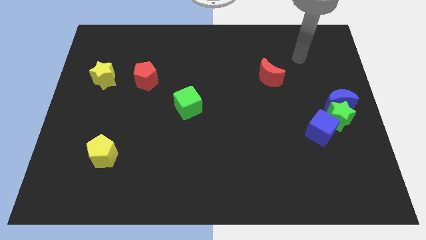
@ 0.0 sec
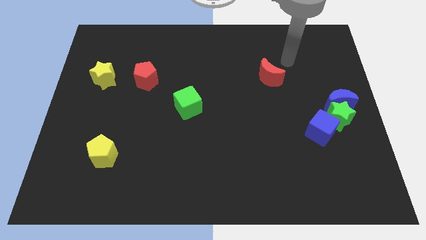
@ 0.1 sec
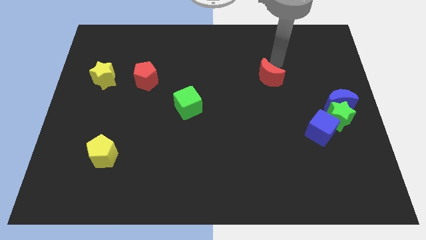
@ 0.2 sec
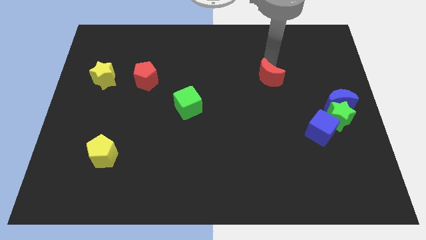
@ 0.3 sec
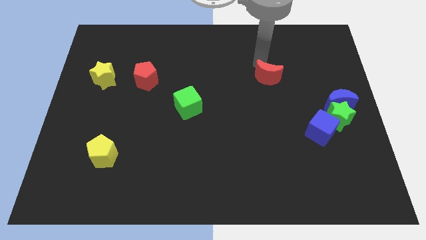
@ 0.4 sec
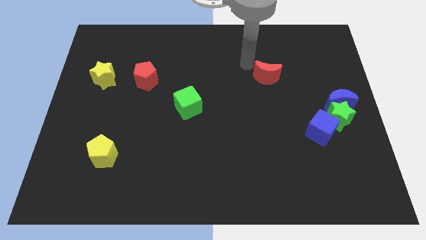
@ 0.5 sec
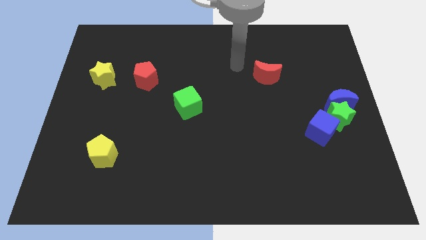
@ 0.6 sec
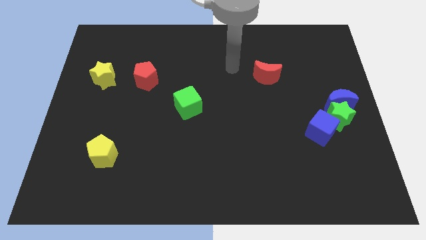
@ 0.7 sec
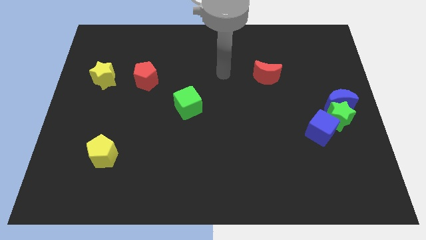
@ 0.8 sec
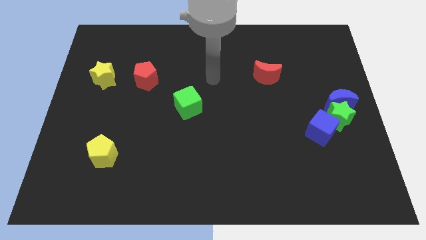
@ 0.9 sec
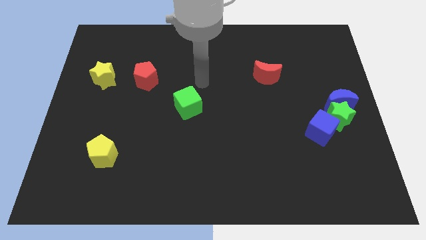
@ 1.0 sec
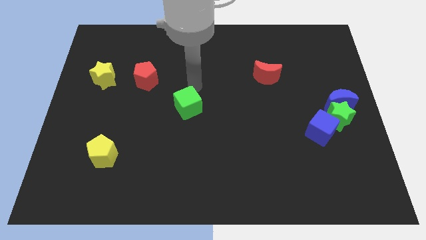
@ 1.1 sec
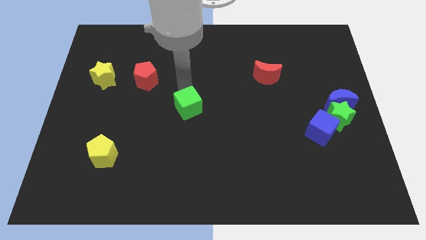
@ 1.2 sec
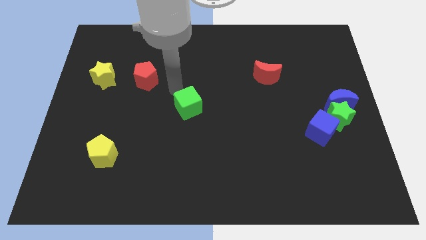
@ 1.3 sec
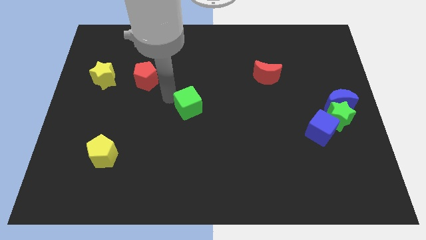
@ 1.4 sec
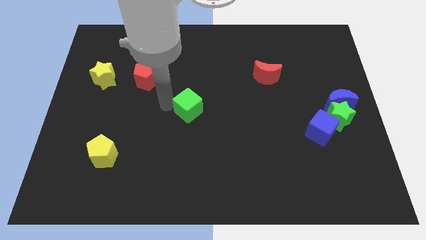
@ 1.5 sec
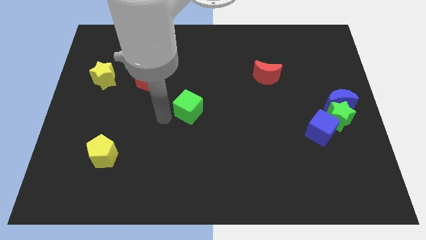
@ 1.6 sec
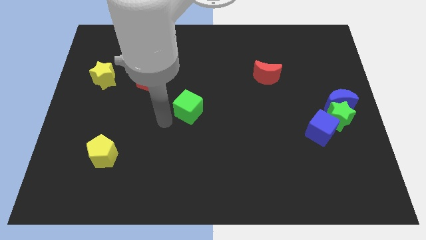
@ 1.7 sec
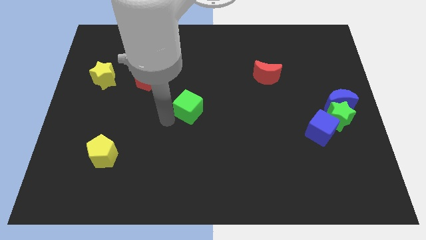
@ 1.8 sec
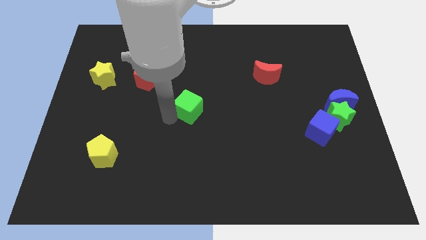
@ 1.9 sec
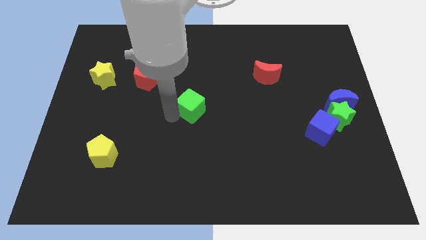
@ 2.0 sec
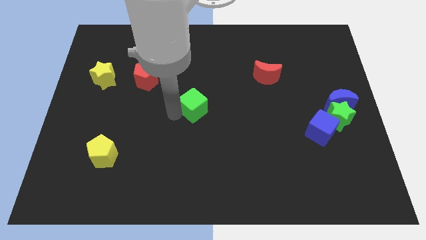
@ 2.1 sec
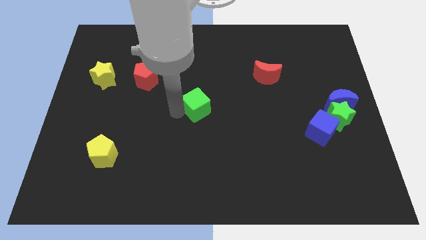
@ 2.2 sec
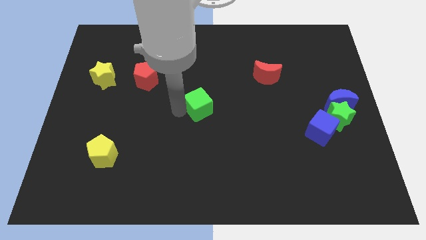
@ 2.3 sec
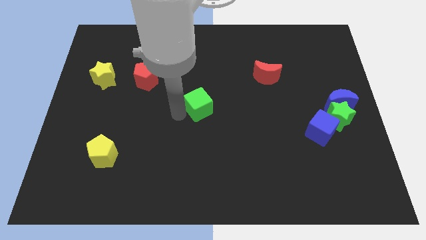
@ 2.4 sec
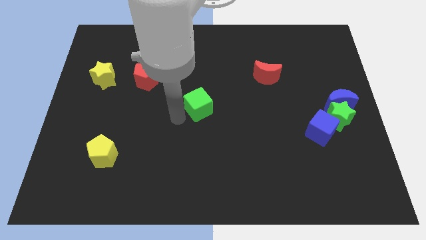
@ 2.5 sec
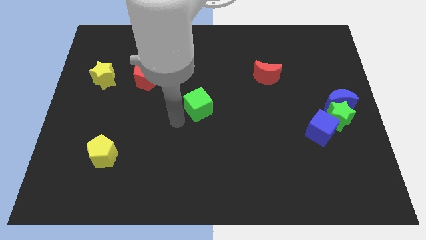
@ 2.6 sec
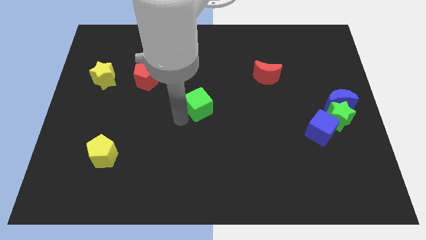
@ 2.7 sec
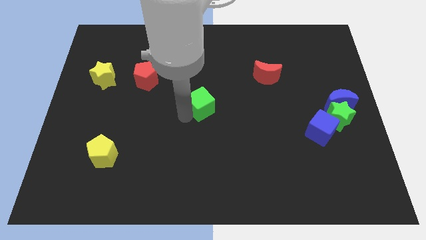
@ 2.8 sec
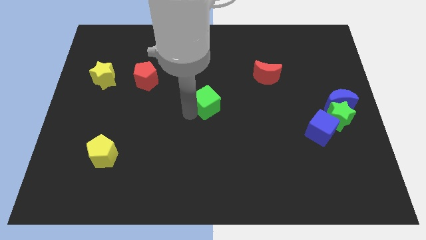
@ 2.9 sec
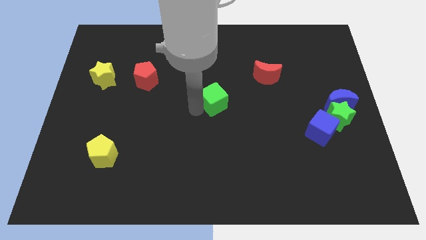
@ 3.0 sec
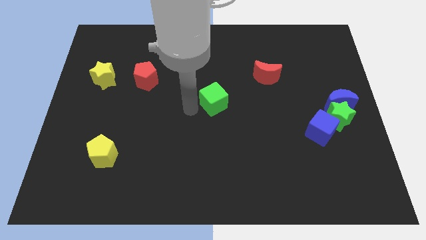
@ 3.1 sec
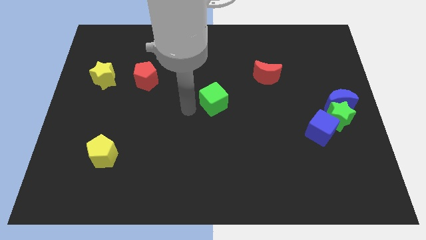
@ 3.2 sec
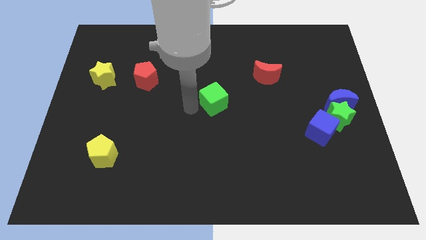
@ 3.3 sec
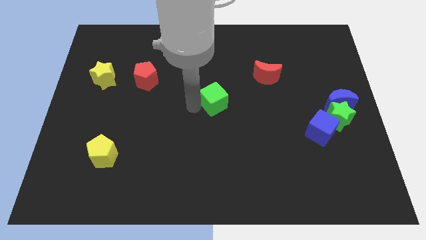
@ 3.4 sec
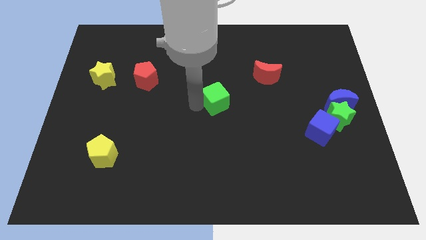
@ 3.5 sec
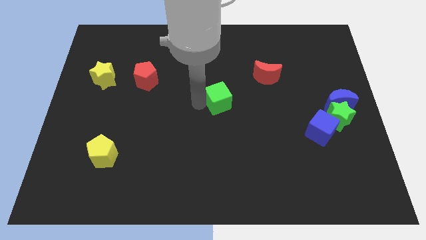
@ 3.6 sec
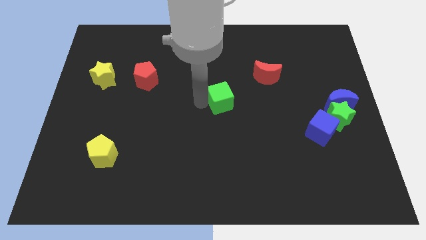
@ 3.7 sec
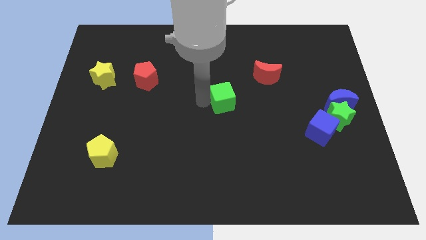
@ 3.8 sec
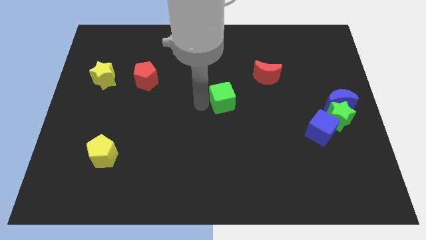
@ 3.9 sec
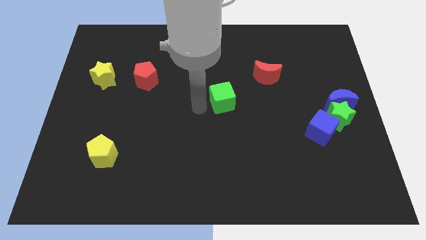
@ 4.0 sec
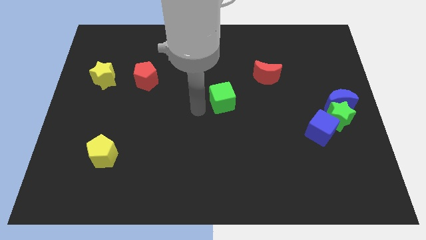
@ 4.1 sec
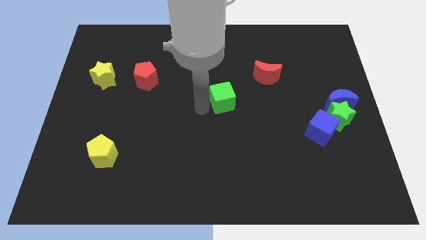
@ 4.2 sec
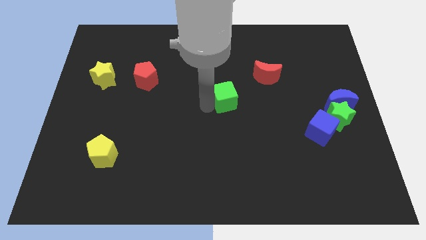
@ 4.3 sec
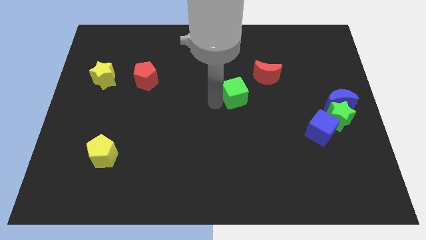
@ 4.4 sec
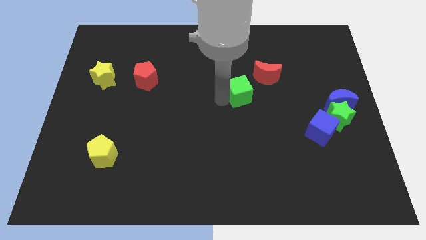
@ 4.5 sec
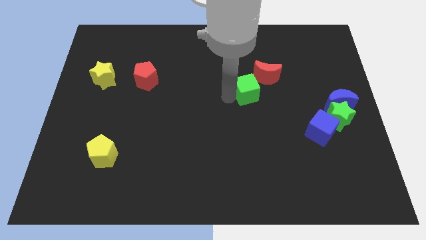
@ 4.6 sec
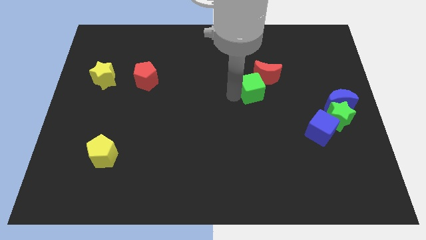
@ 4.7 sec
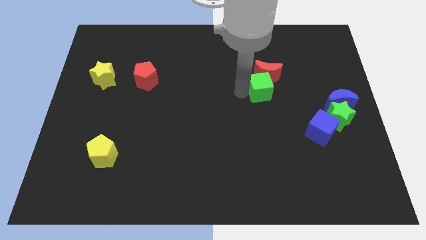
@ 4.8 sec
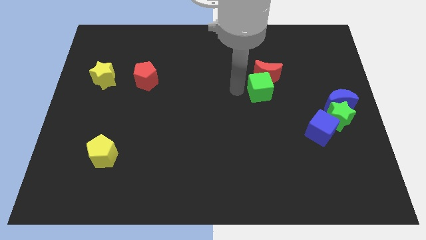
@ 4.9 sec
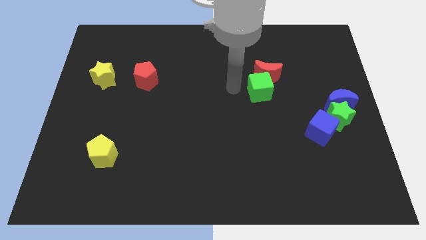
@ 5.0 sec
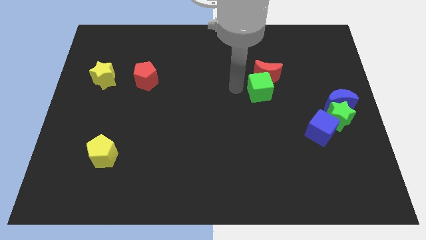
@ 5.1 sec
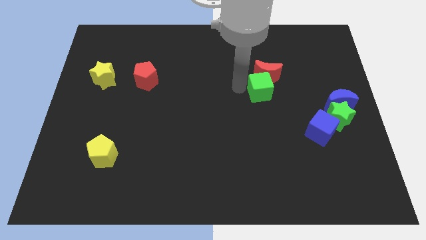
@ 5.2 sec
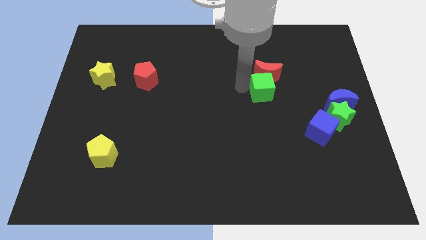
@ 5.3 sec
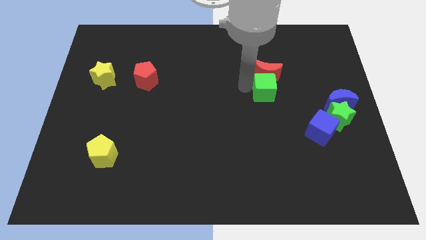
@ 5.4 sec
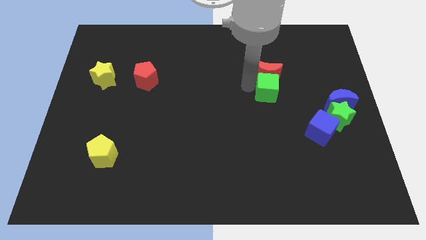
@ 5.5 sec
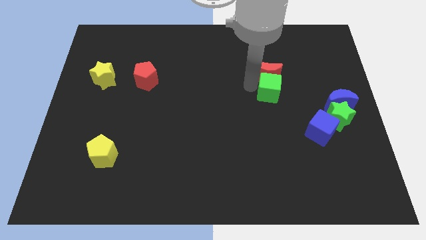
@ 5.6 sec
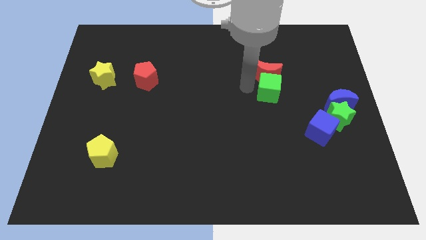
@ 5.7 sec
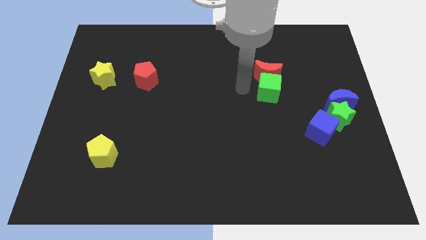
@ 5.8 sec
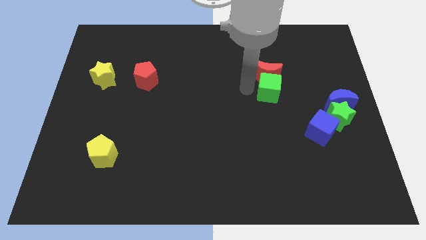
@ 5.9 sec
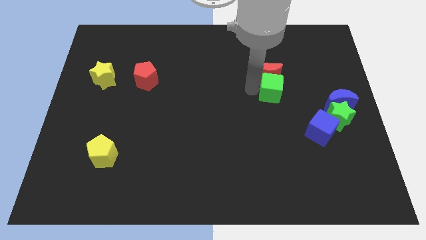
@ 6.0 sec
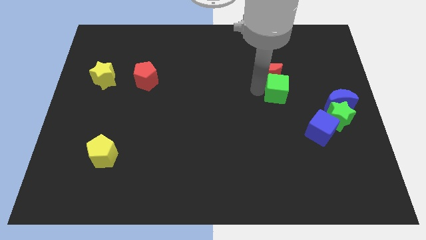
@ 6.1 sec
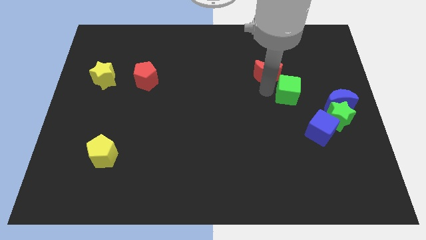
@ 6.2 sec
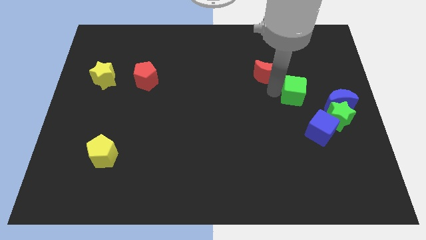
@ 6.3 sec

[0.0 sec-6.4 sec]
push the green cube above the blue cube

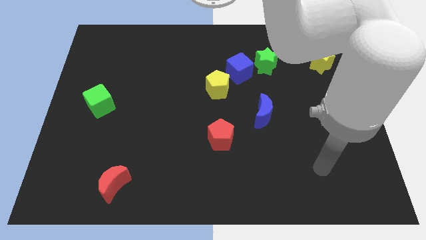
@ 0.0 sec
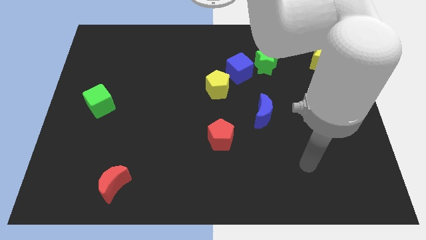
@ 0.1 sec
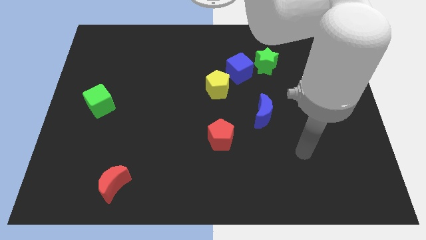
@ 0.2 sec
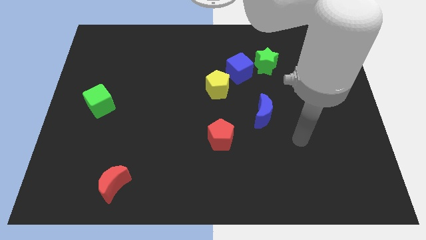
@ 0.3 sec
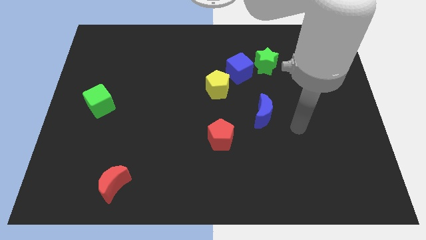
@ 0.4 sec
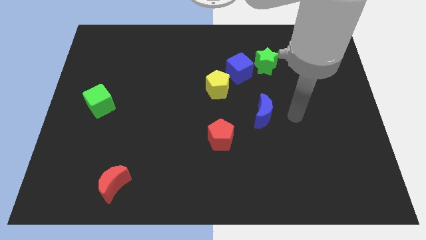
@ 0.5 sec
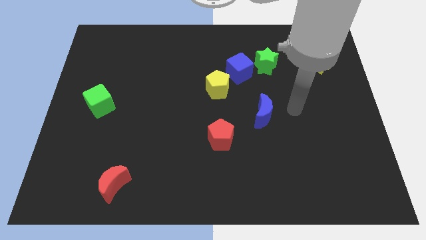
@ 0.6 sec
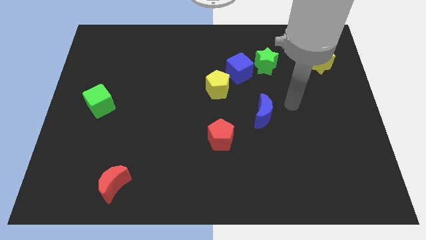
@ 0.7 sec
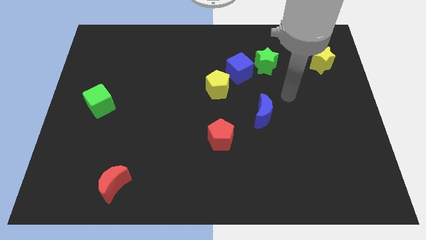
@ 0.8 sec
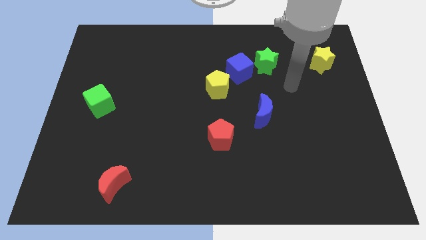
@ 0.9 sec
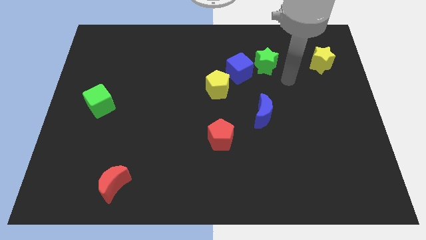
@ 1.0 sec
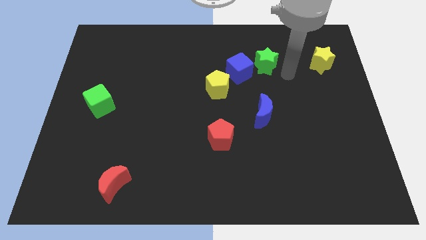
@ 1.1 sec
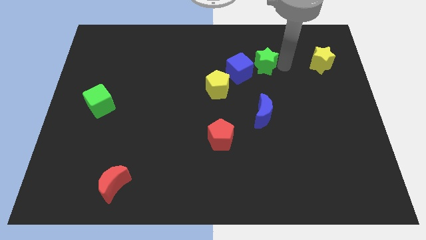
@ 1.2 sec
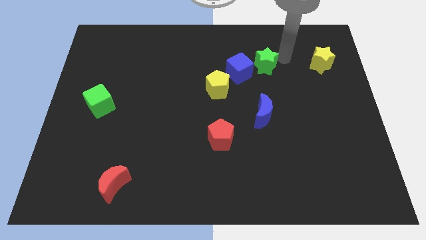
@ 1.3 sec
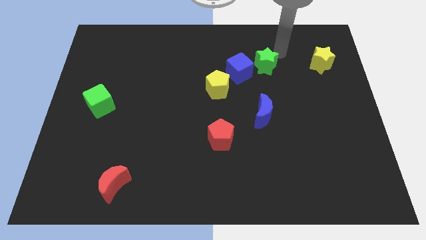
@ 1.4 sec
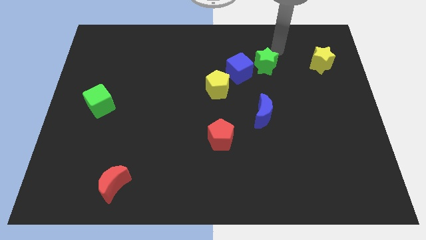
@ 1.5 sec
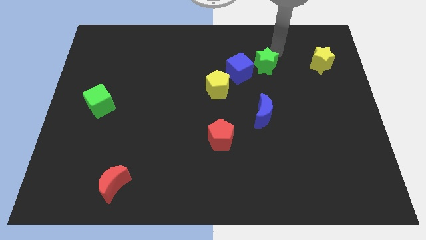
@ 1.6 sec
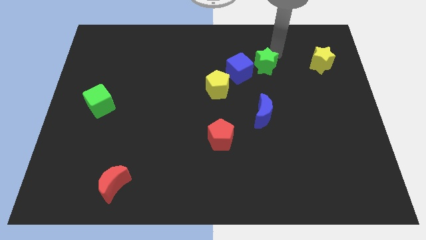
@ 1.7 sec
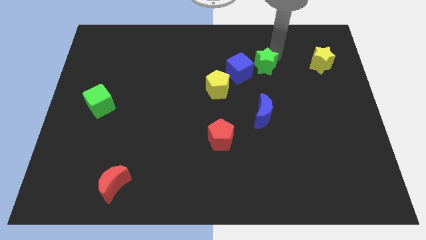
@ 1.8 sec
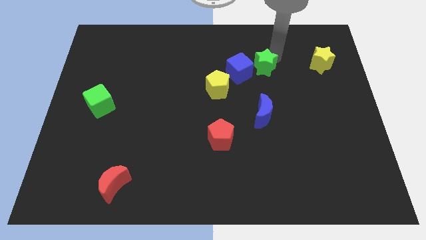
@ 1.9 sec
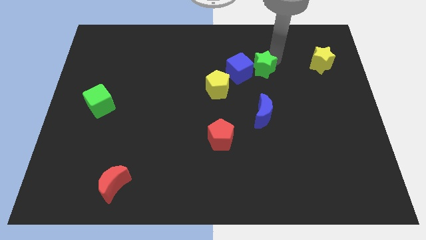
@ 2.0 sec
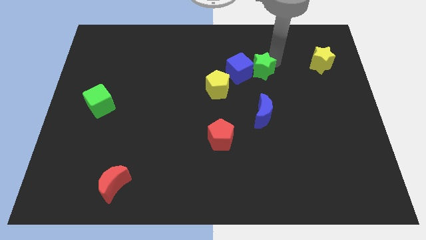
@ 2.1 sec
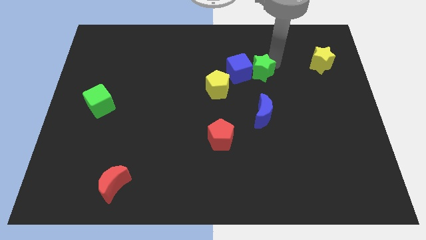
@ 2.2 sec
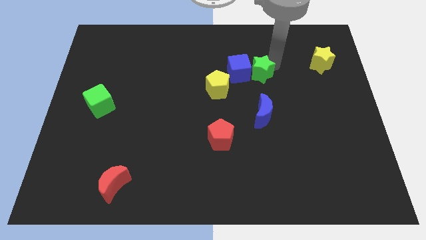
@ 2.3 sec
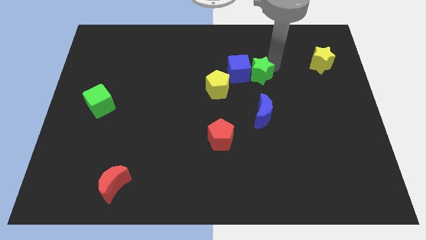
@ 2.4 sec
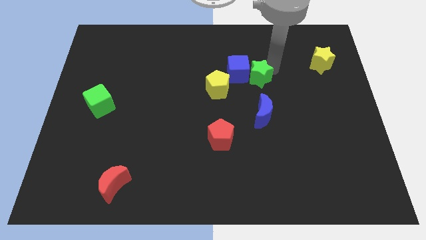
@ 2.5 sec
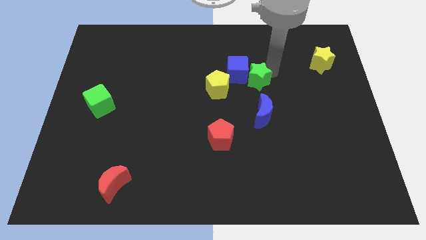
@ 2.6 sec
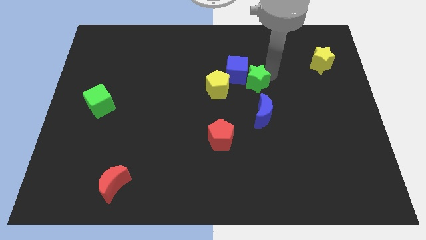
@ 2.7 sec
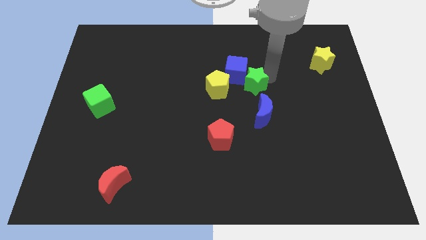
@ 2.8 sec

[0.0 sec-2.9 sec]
push the green star to the bottom side of the blue cube
